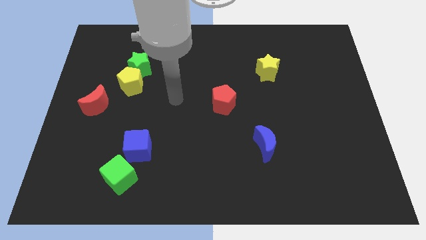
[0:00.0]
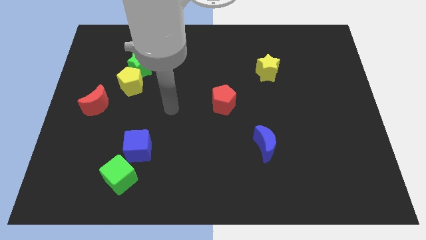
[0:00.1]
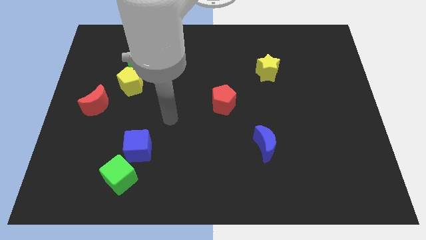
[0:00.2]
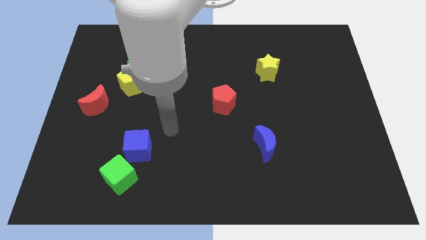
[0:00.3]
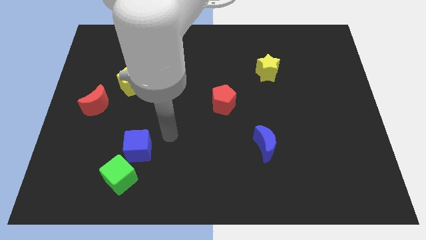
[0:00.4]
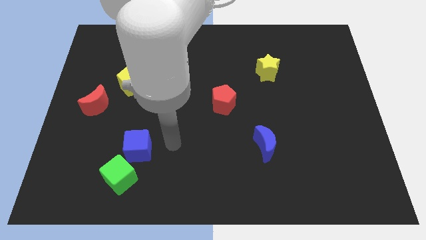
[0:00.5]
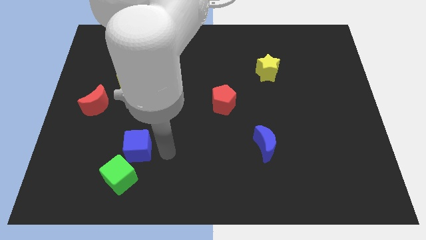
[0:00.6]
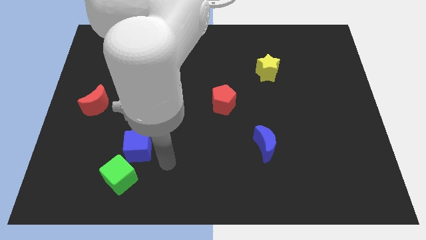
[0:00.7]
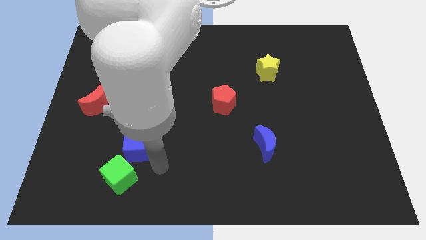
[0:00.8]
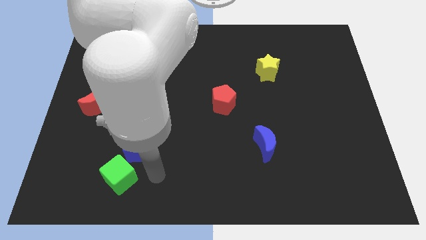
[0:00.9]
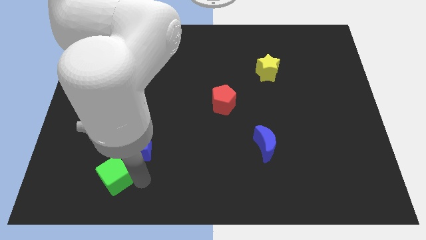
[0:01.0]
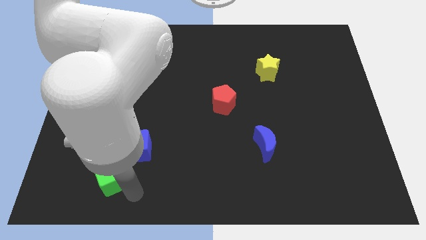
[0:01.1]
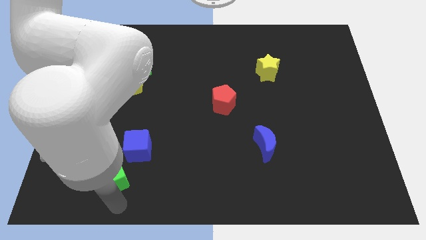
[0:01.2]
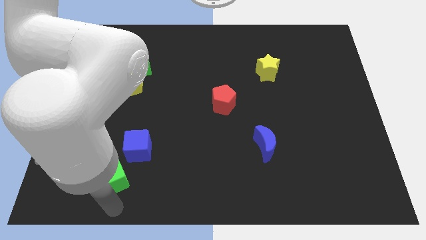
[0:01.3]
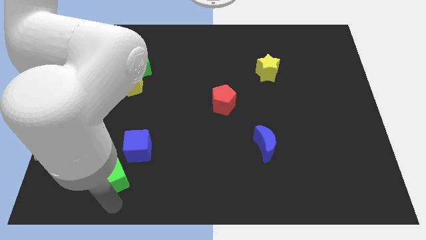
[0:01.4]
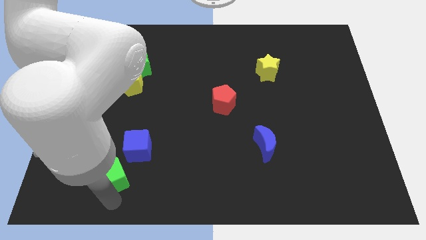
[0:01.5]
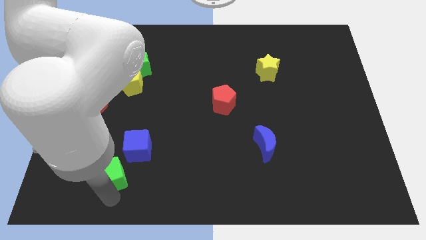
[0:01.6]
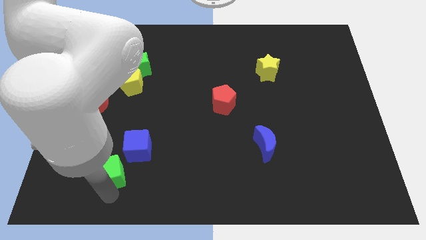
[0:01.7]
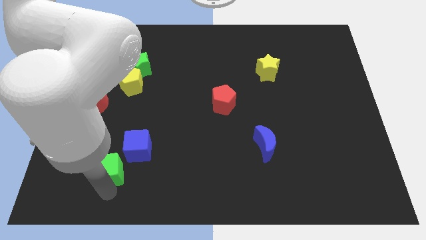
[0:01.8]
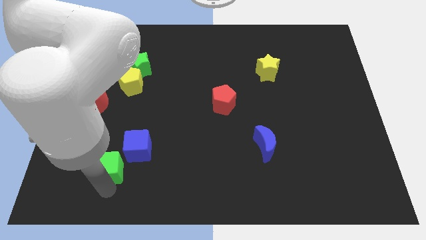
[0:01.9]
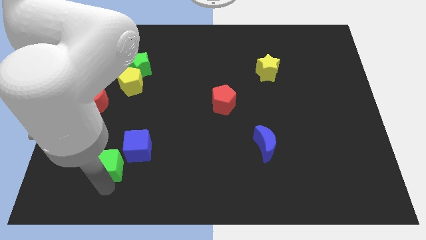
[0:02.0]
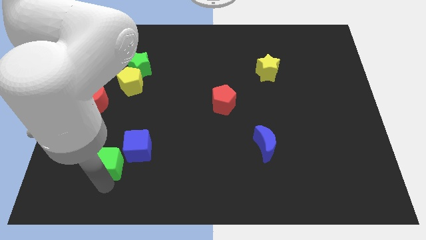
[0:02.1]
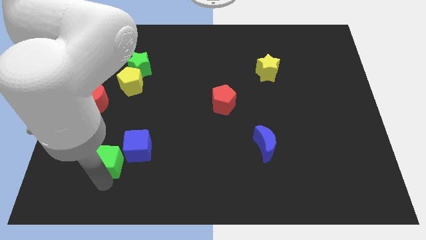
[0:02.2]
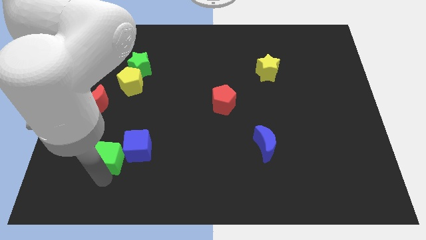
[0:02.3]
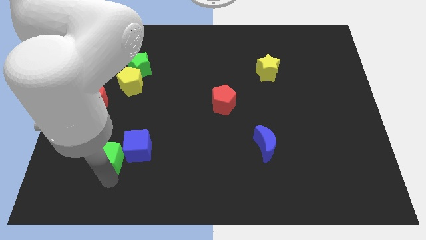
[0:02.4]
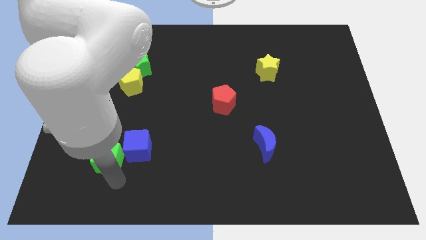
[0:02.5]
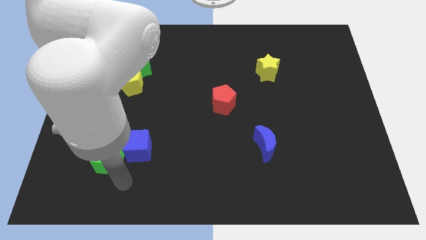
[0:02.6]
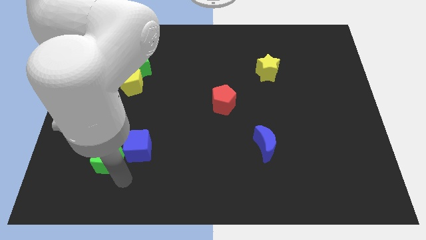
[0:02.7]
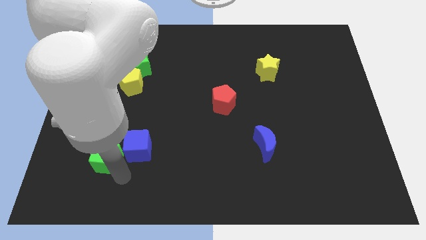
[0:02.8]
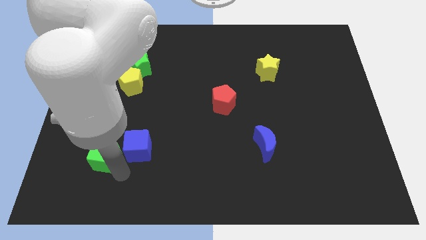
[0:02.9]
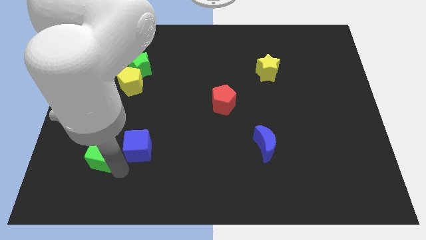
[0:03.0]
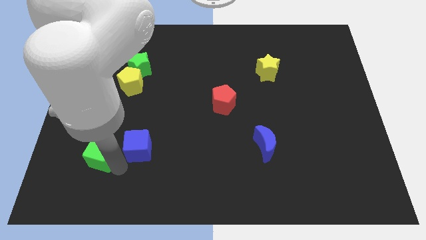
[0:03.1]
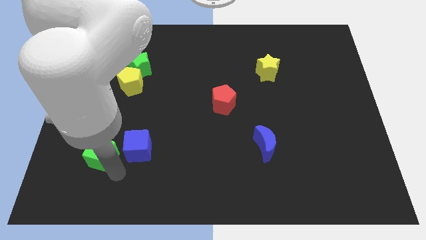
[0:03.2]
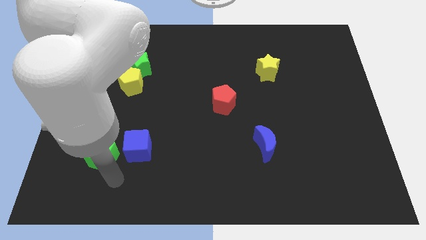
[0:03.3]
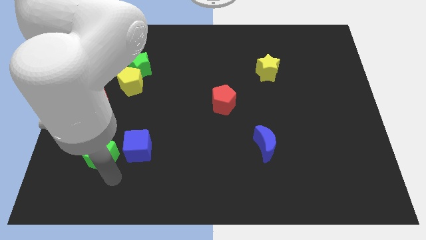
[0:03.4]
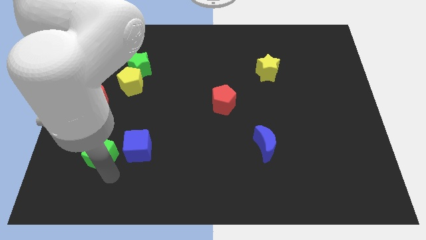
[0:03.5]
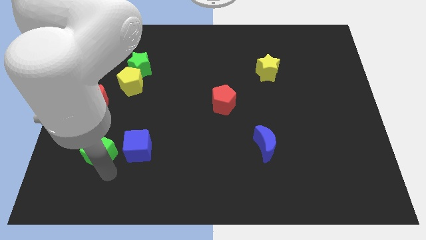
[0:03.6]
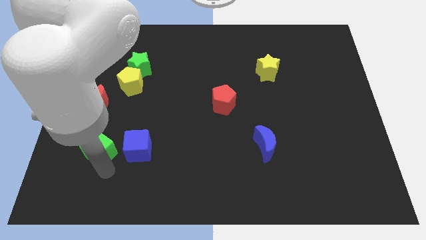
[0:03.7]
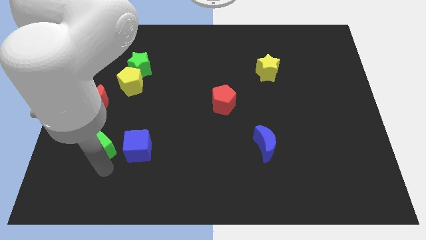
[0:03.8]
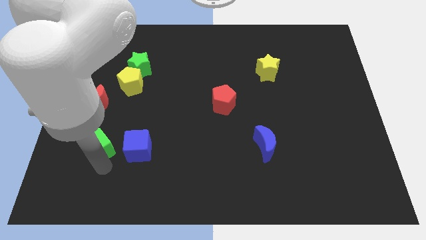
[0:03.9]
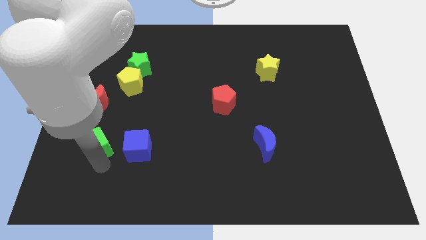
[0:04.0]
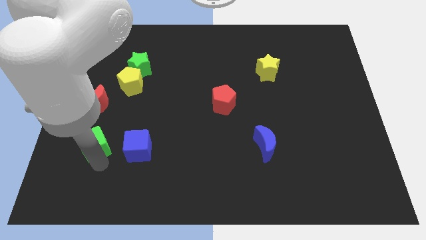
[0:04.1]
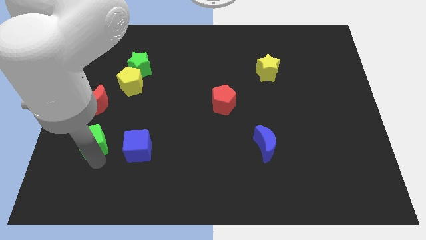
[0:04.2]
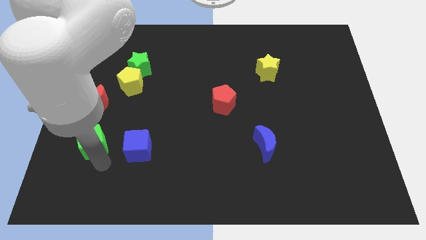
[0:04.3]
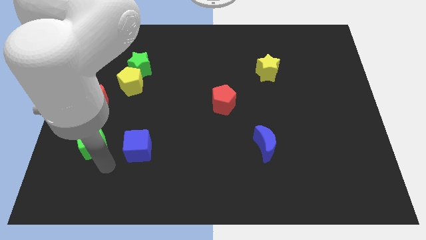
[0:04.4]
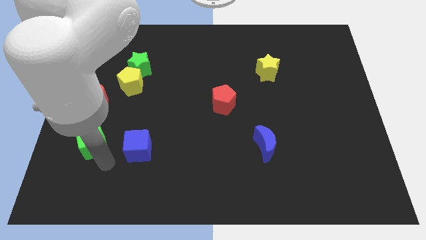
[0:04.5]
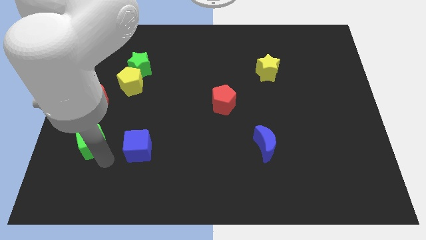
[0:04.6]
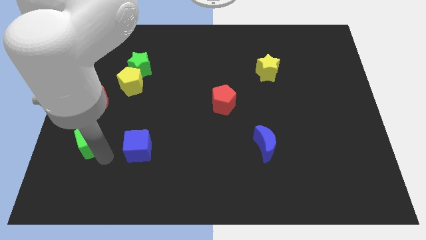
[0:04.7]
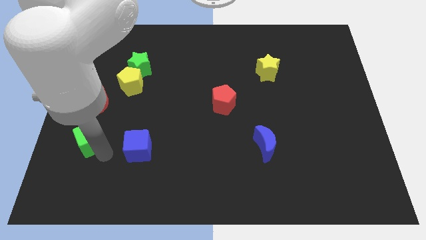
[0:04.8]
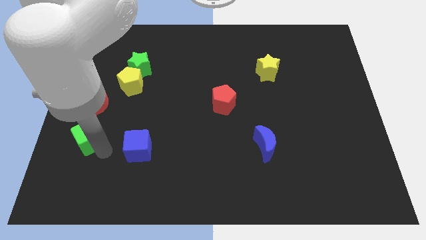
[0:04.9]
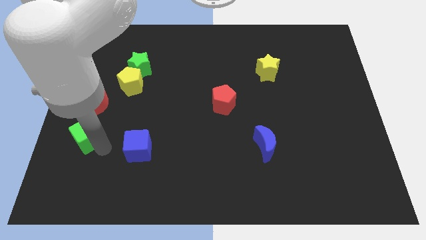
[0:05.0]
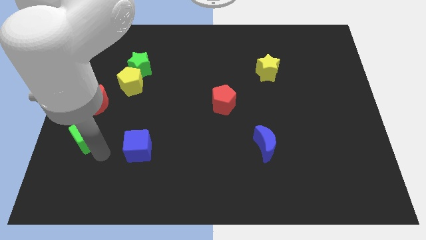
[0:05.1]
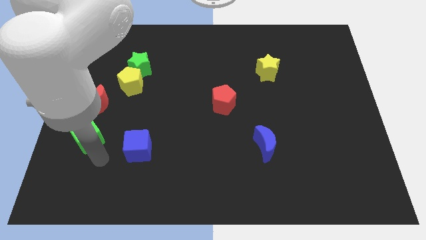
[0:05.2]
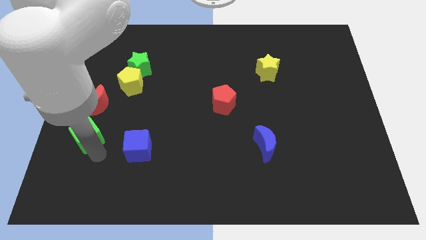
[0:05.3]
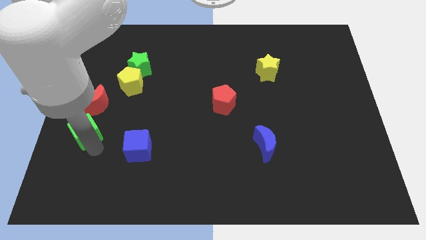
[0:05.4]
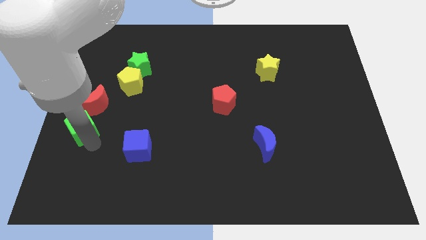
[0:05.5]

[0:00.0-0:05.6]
put the green cube to the left side of the board
